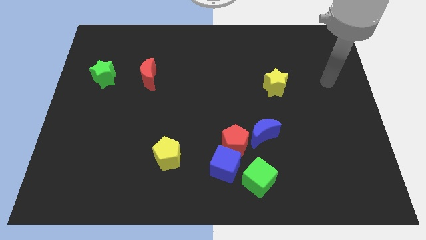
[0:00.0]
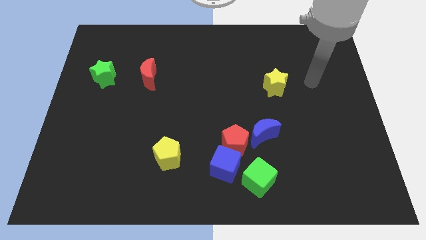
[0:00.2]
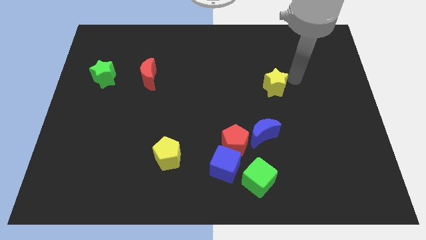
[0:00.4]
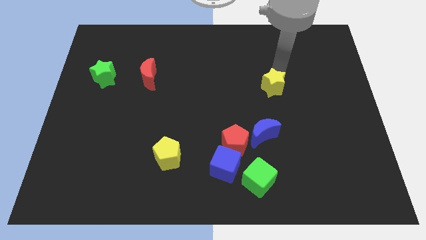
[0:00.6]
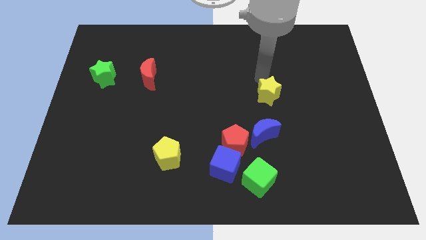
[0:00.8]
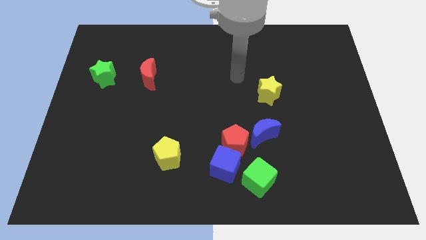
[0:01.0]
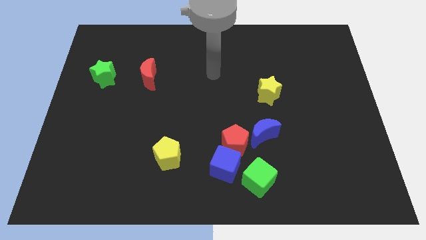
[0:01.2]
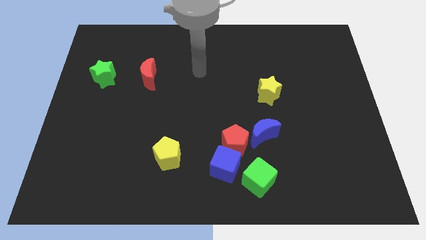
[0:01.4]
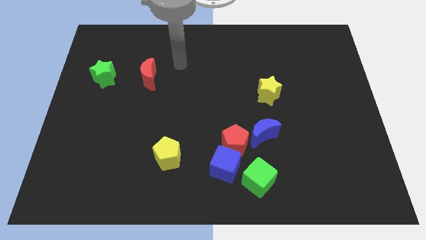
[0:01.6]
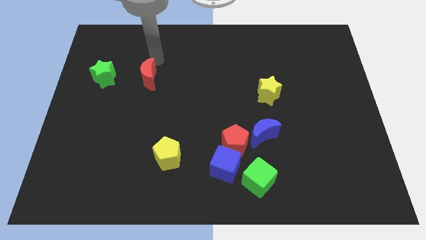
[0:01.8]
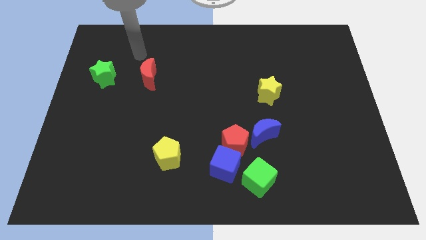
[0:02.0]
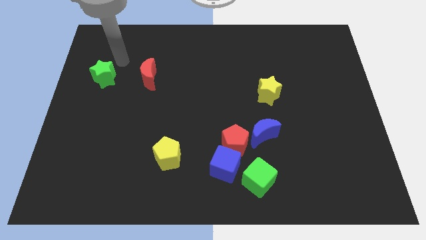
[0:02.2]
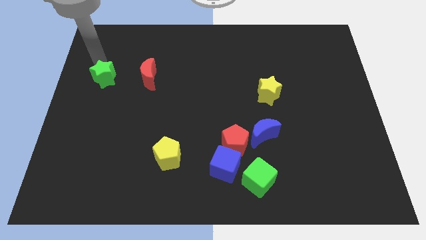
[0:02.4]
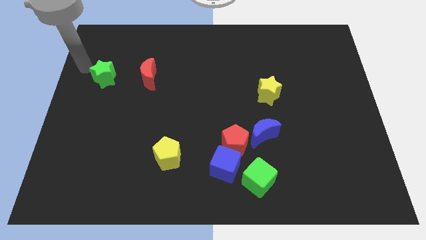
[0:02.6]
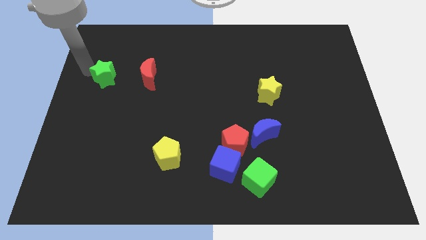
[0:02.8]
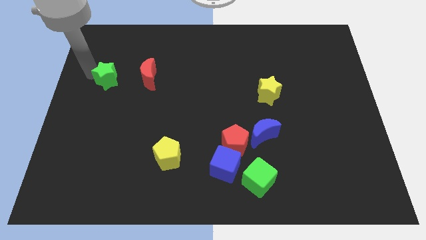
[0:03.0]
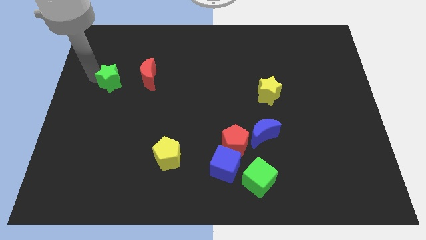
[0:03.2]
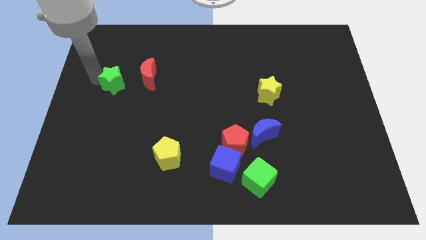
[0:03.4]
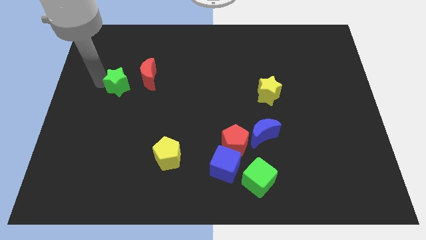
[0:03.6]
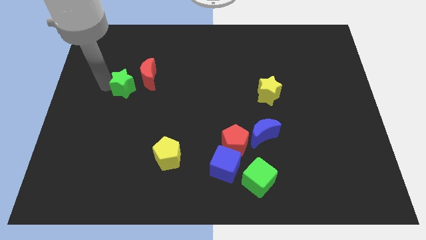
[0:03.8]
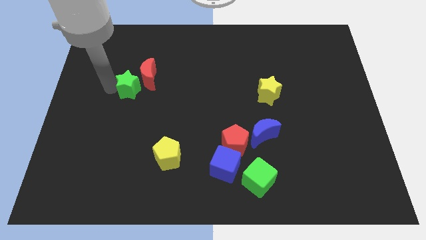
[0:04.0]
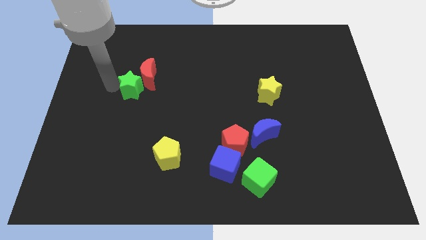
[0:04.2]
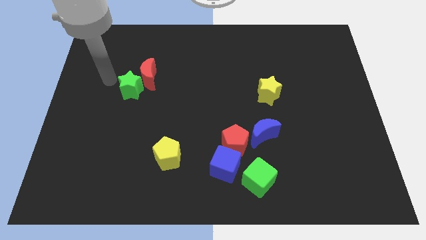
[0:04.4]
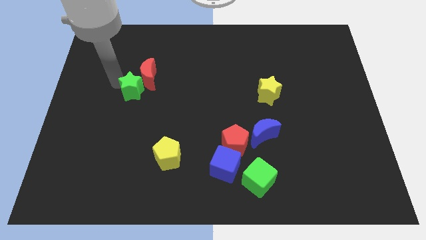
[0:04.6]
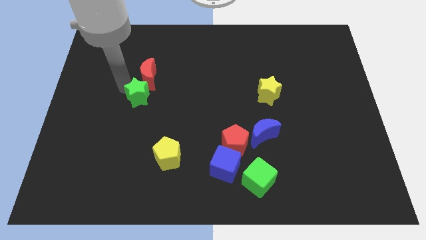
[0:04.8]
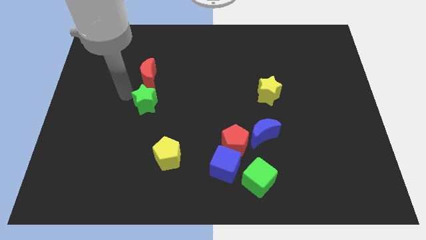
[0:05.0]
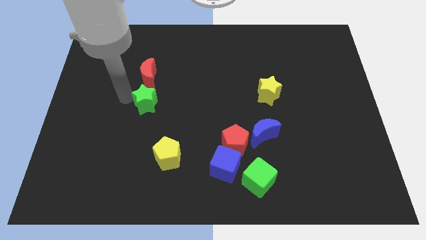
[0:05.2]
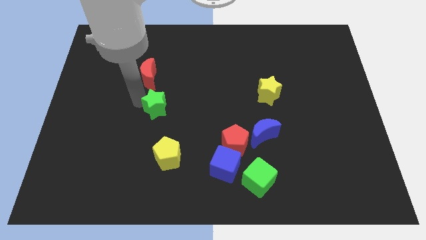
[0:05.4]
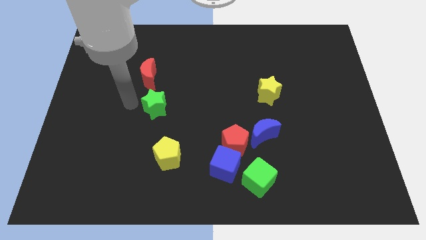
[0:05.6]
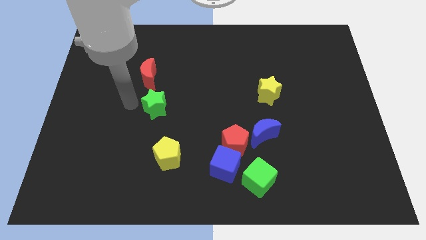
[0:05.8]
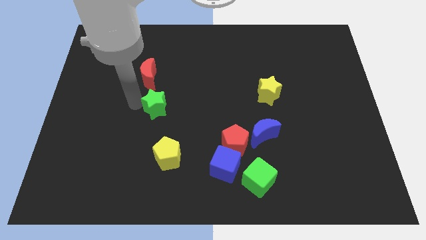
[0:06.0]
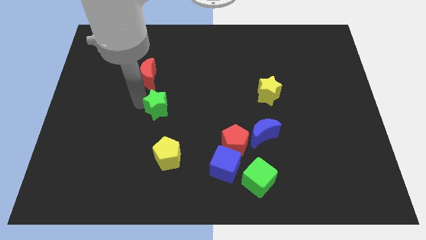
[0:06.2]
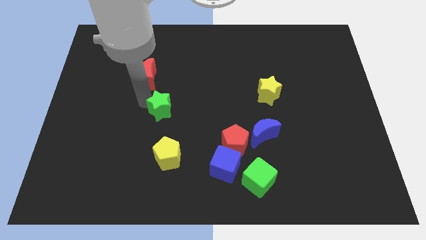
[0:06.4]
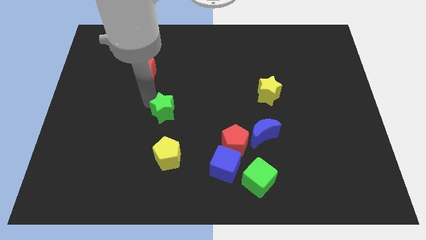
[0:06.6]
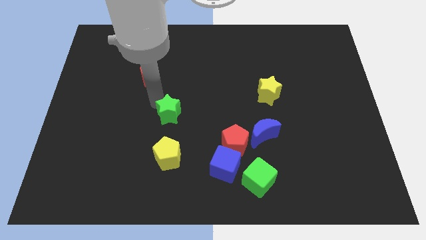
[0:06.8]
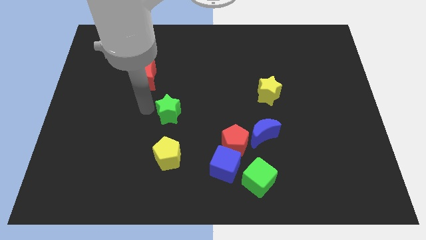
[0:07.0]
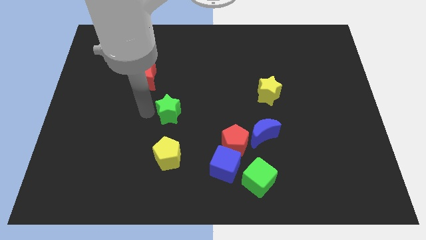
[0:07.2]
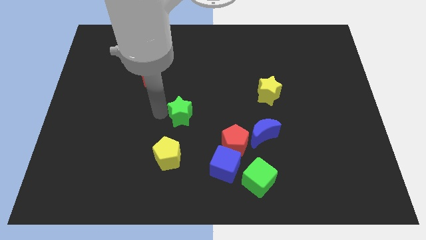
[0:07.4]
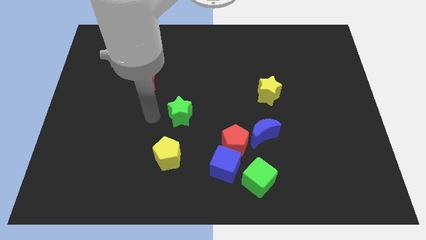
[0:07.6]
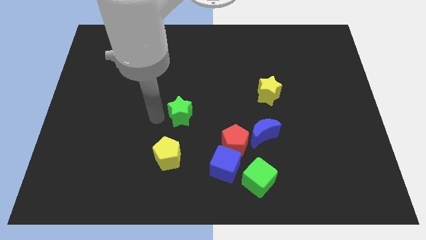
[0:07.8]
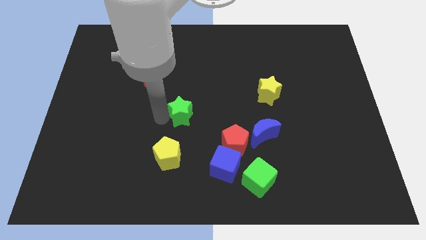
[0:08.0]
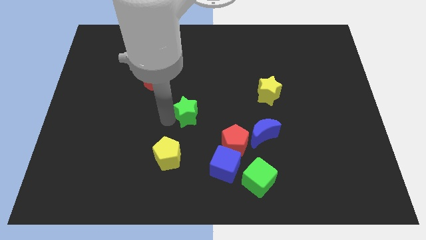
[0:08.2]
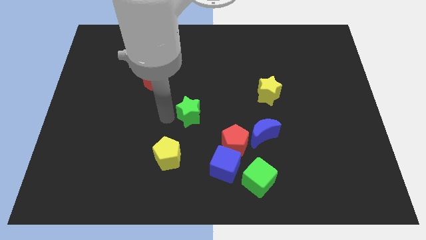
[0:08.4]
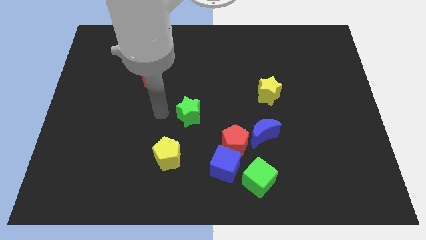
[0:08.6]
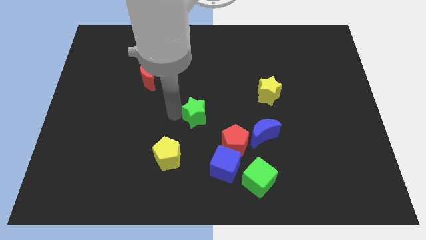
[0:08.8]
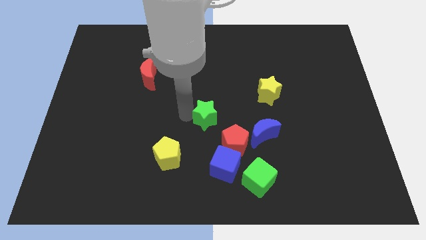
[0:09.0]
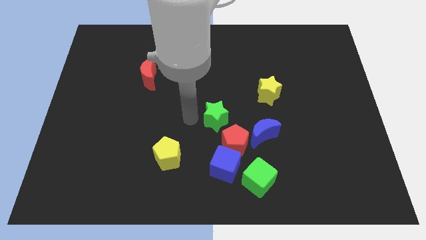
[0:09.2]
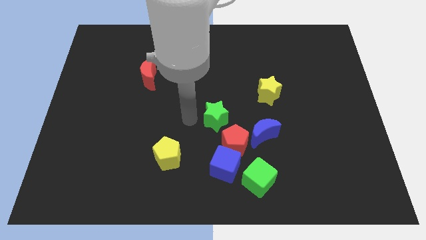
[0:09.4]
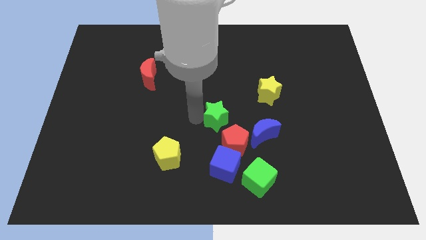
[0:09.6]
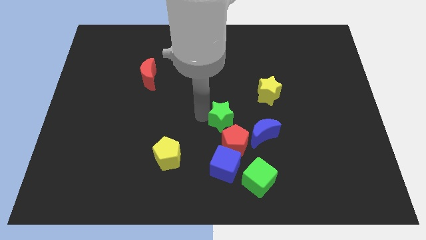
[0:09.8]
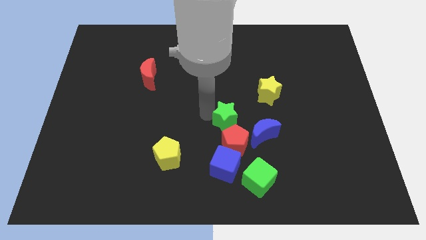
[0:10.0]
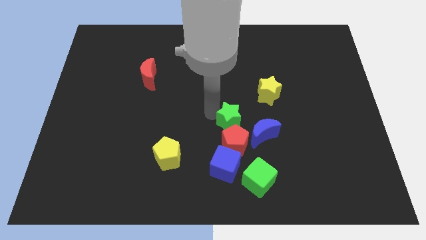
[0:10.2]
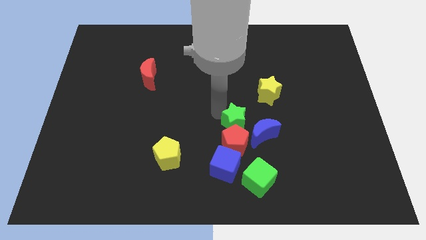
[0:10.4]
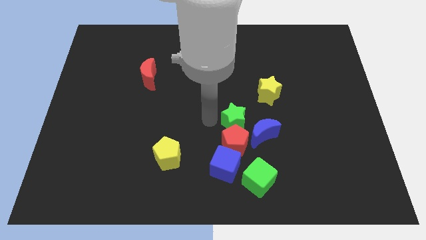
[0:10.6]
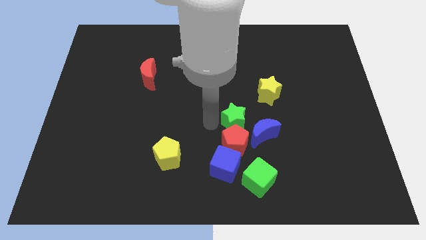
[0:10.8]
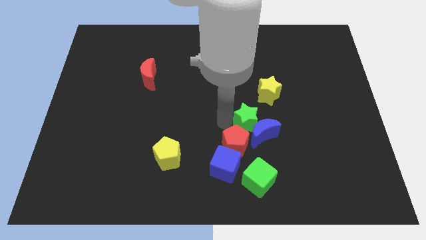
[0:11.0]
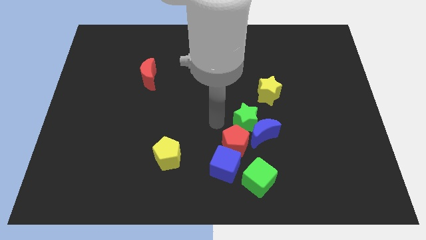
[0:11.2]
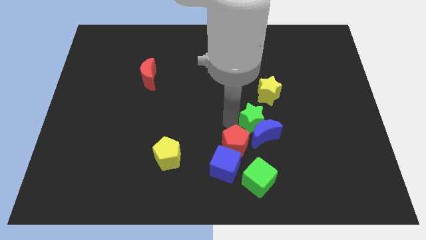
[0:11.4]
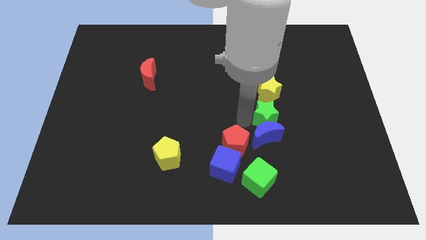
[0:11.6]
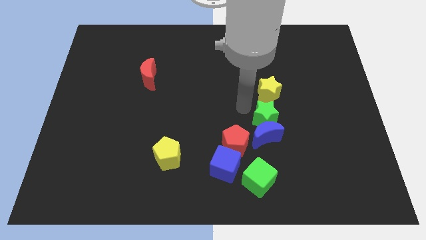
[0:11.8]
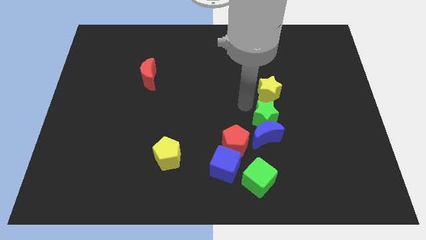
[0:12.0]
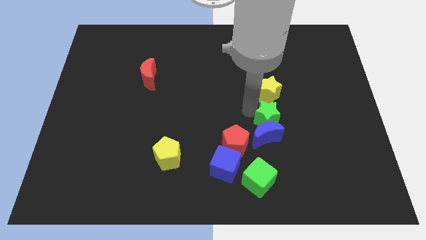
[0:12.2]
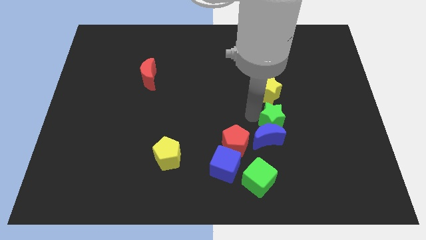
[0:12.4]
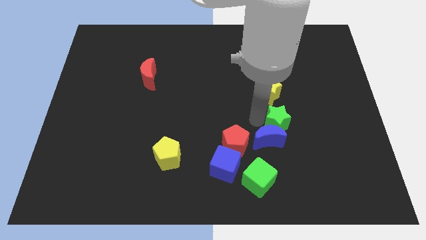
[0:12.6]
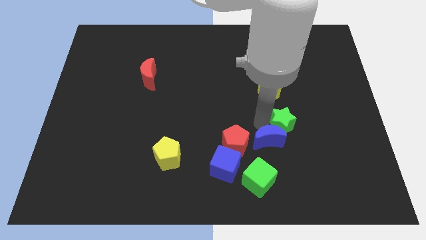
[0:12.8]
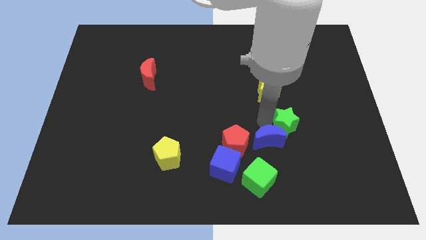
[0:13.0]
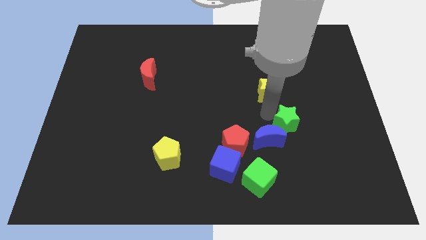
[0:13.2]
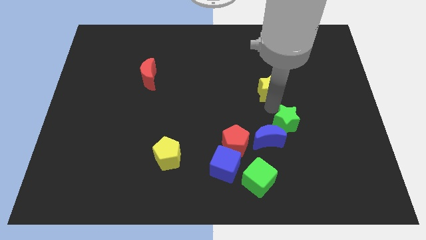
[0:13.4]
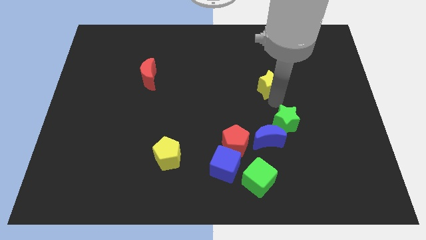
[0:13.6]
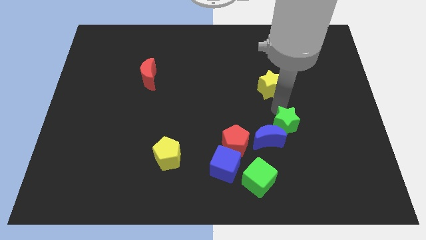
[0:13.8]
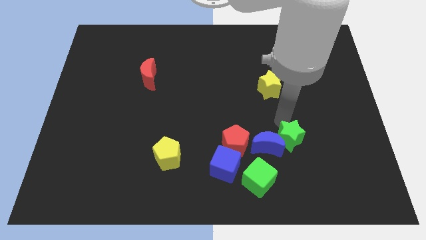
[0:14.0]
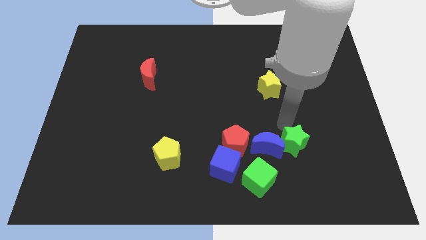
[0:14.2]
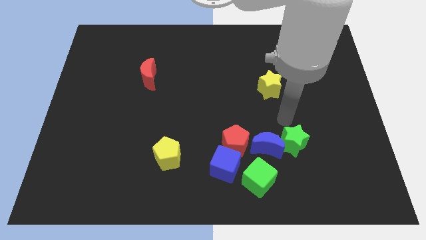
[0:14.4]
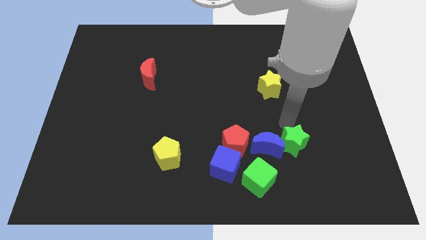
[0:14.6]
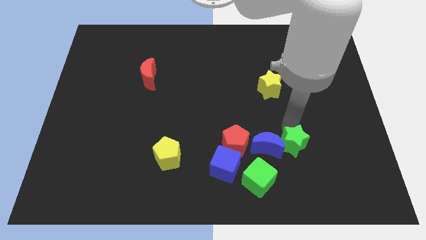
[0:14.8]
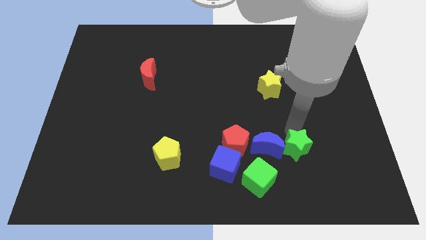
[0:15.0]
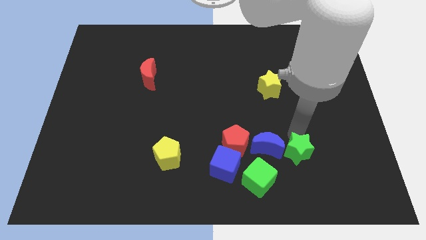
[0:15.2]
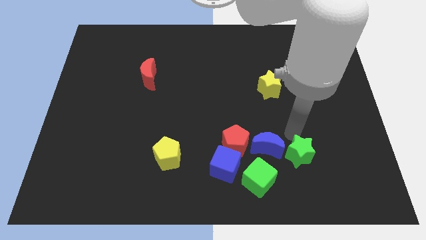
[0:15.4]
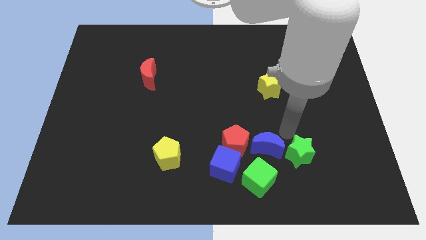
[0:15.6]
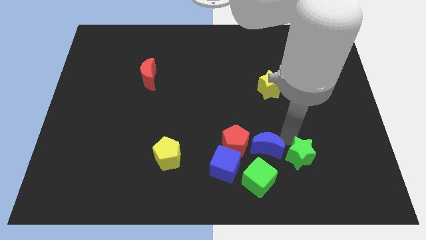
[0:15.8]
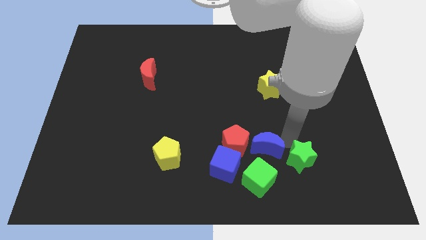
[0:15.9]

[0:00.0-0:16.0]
put the green star to the right side of the green cube
